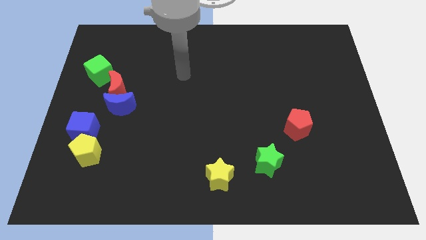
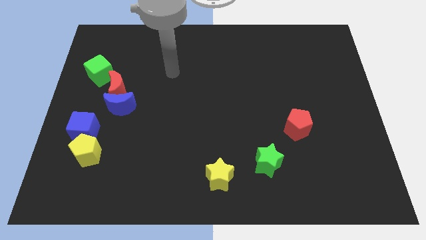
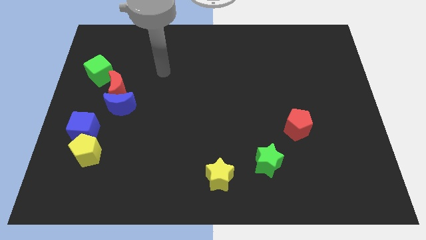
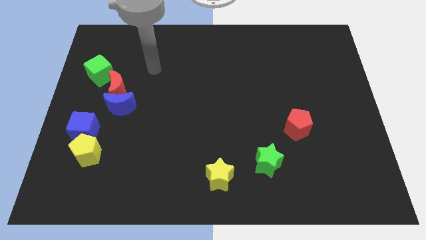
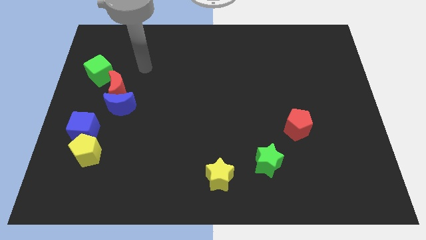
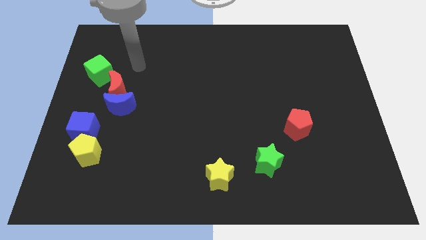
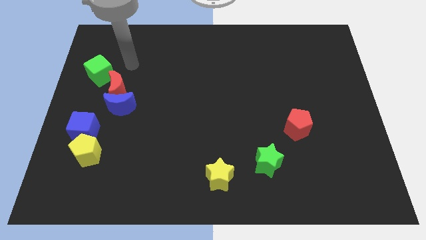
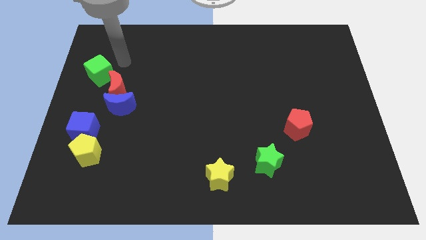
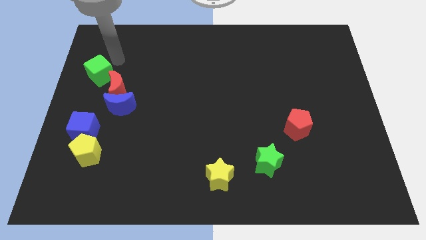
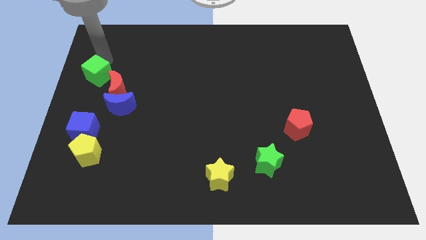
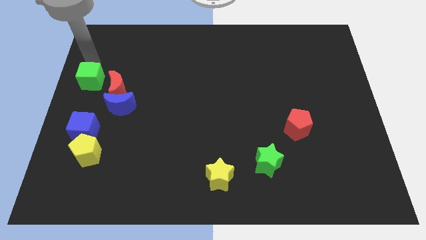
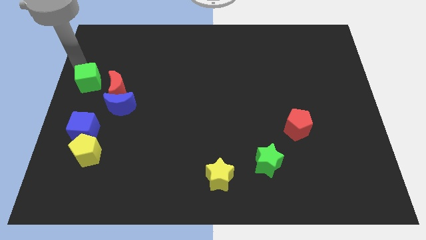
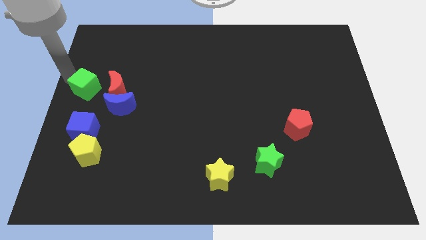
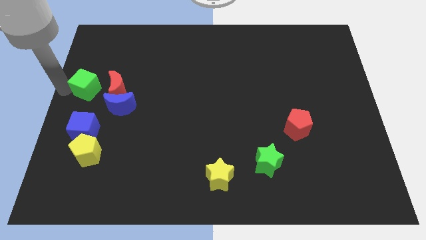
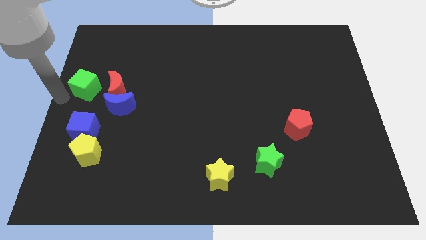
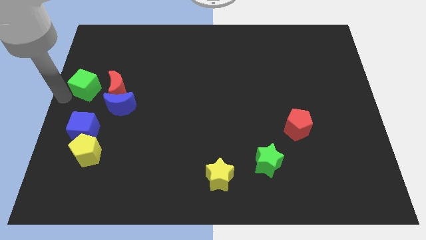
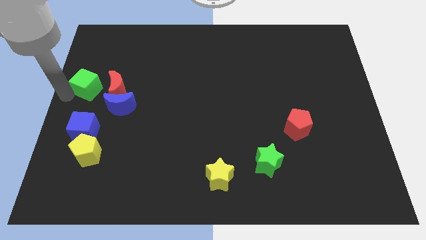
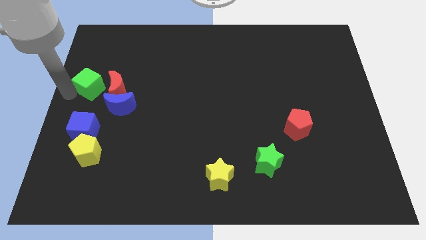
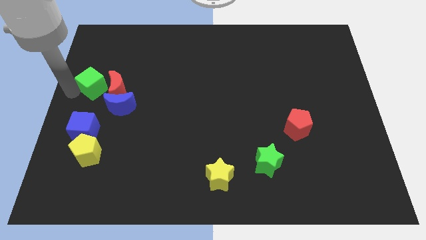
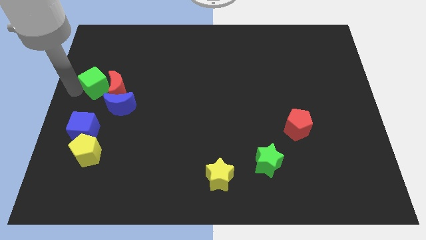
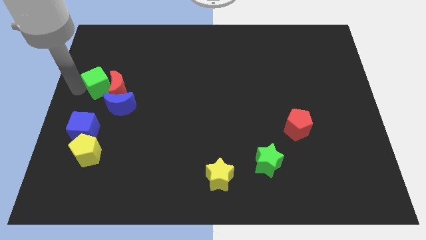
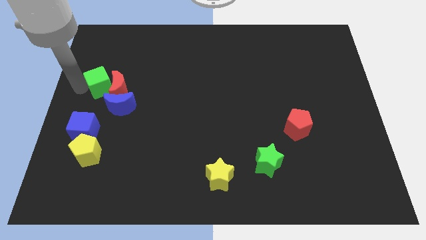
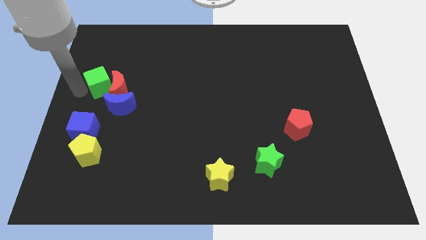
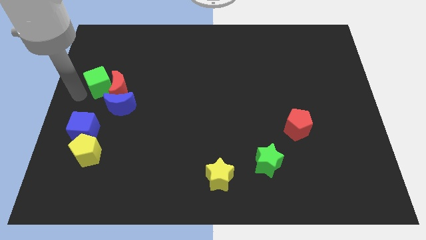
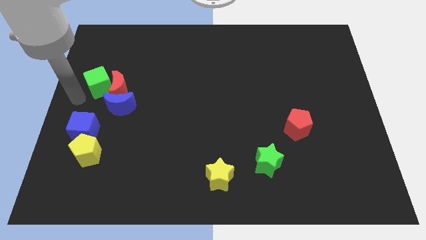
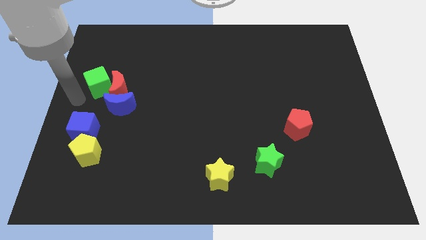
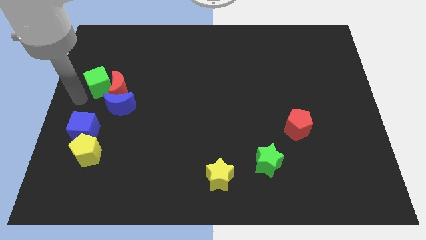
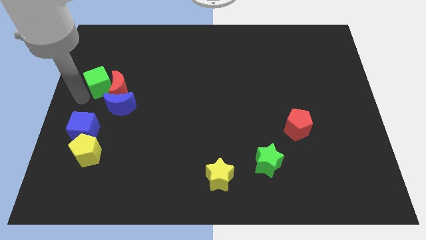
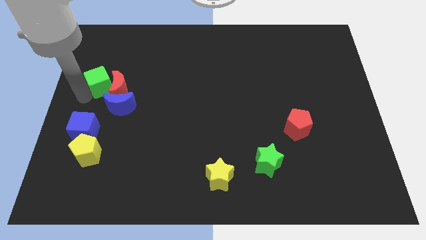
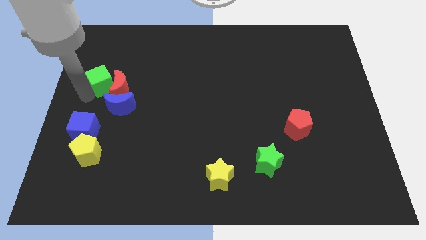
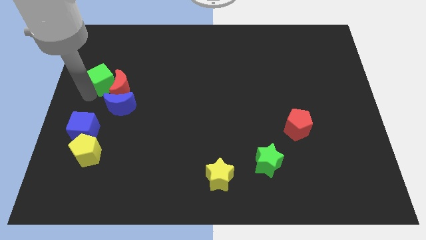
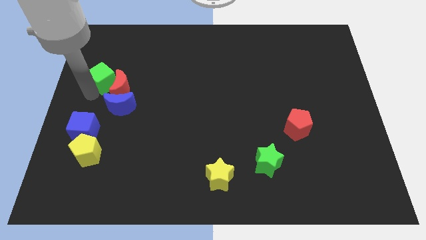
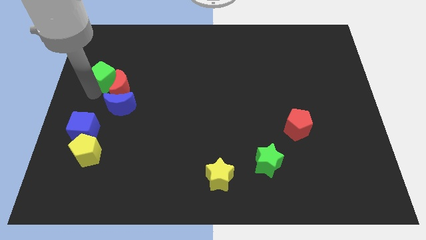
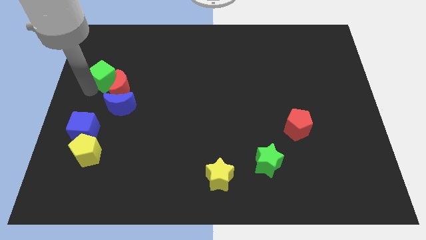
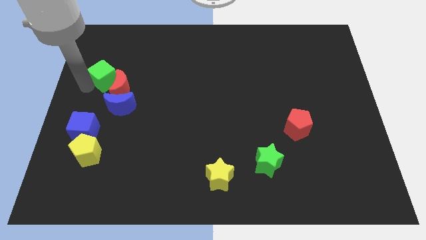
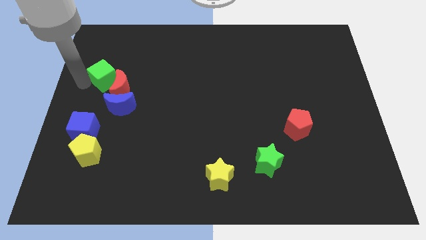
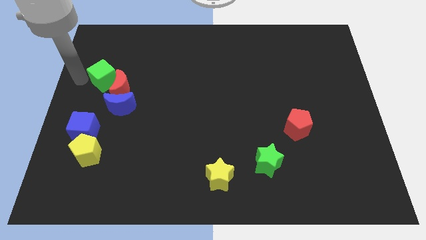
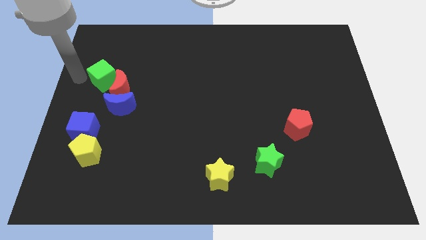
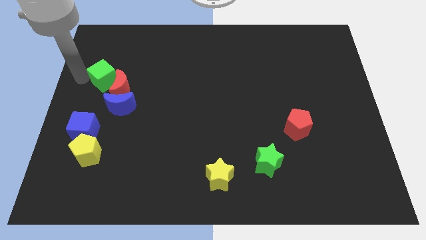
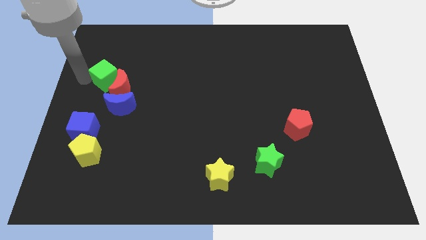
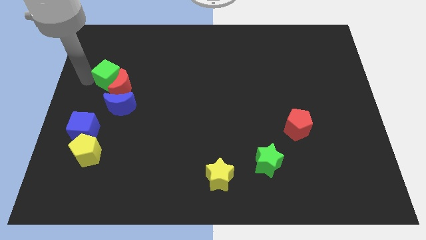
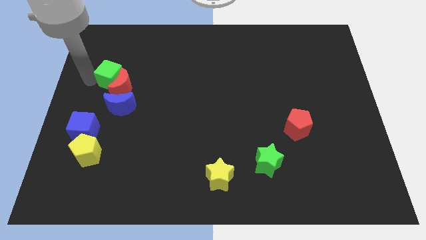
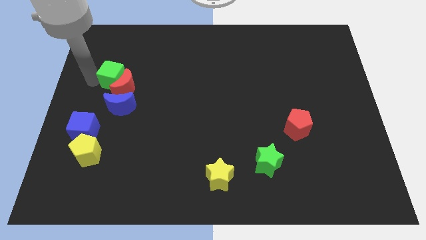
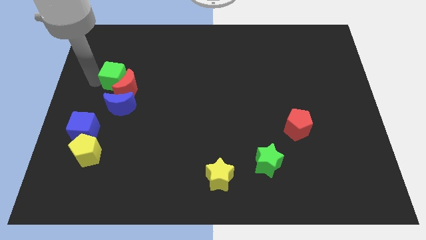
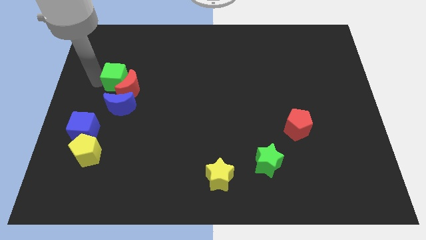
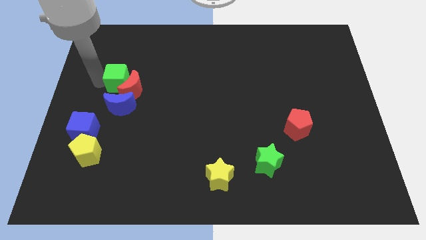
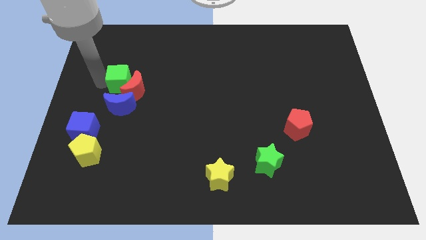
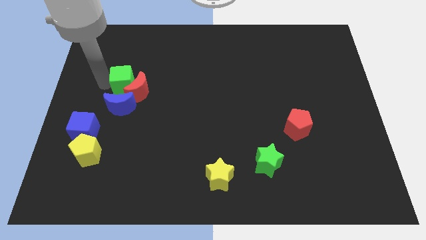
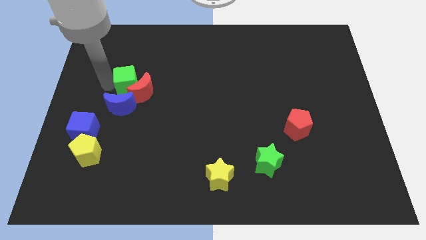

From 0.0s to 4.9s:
slide the green cube down and to the right a little

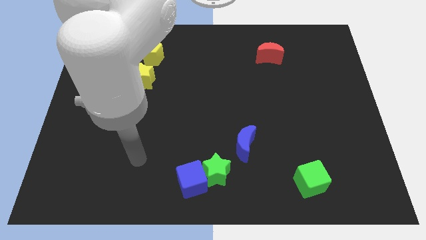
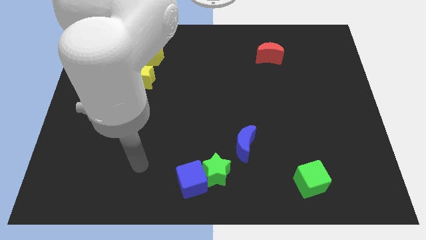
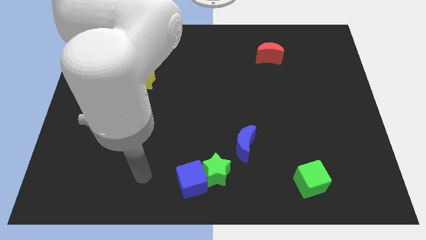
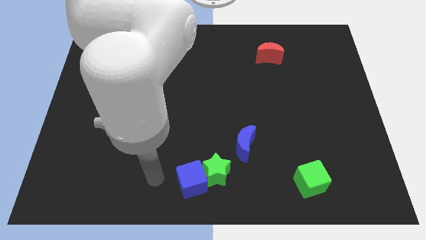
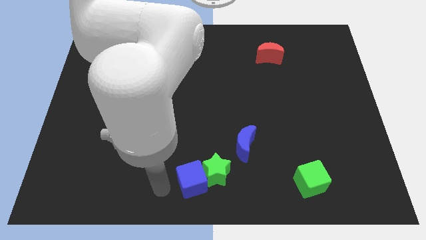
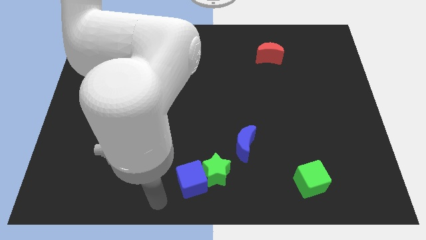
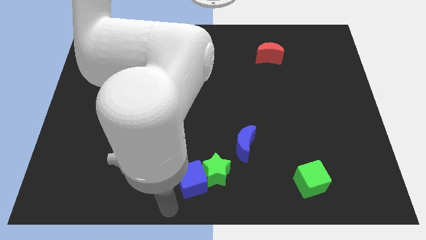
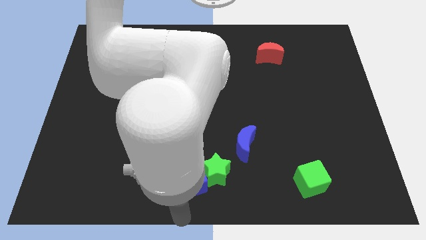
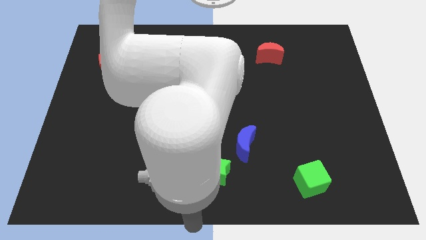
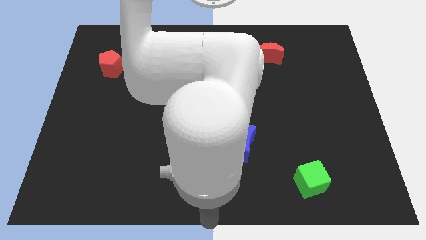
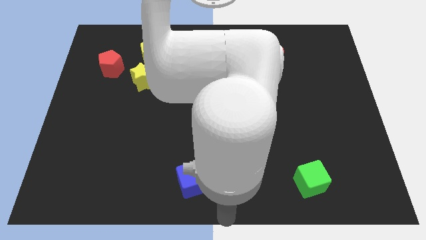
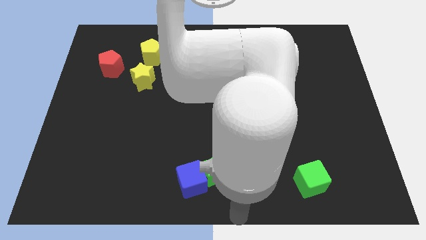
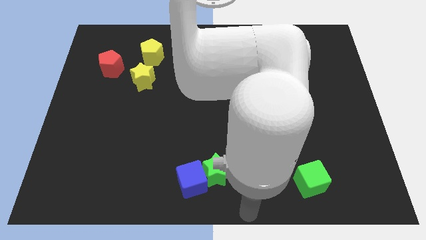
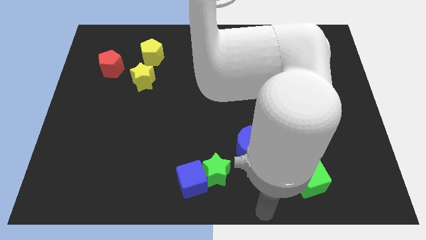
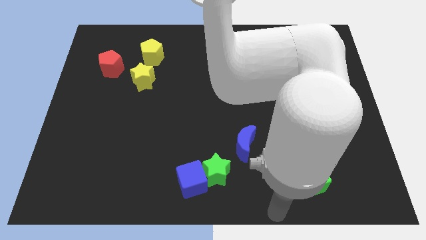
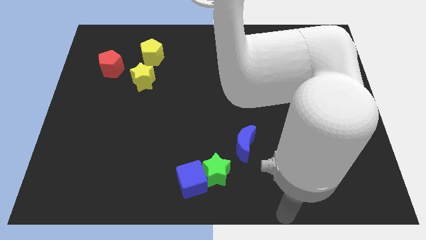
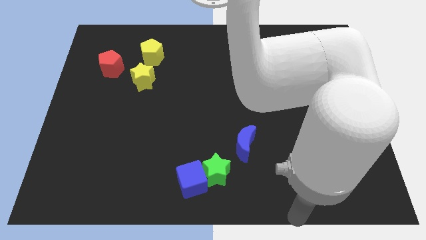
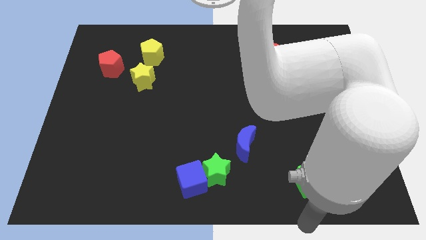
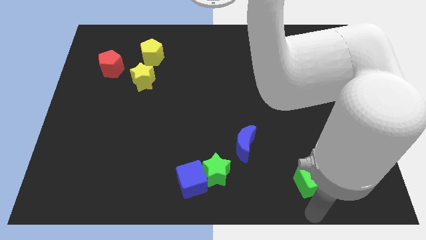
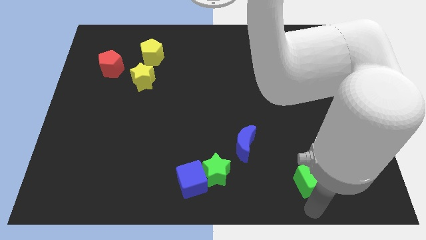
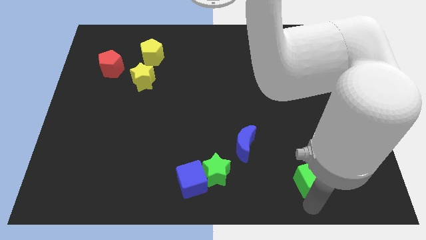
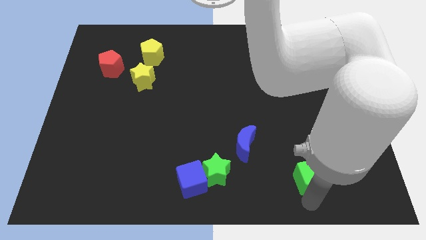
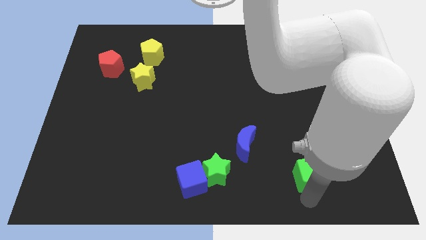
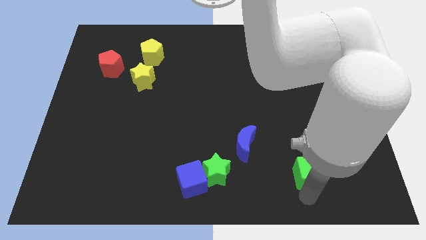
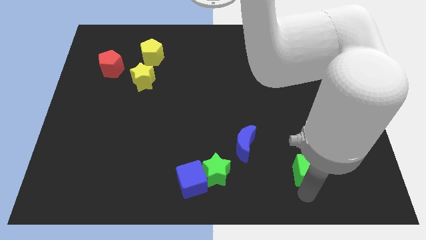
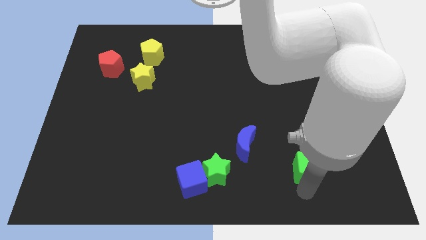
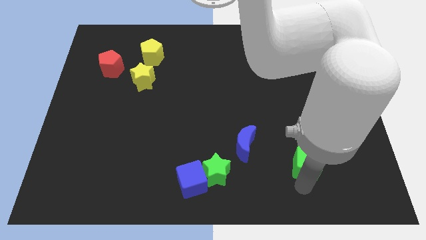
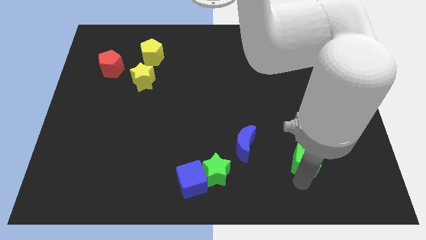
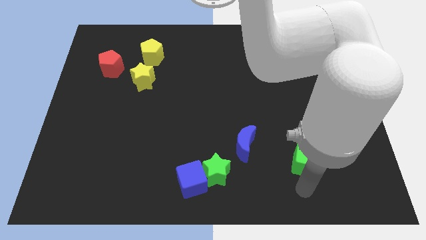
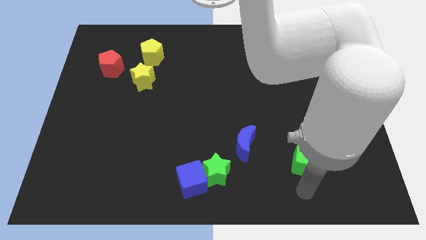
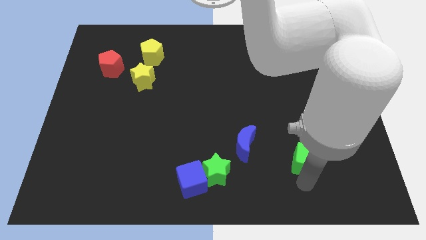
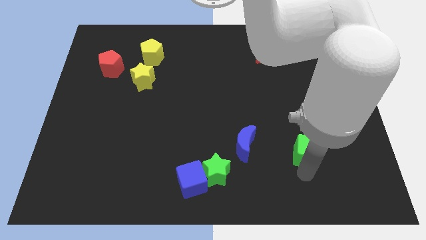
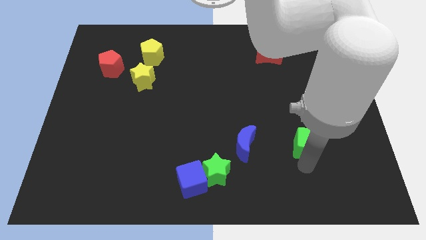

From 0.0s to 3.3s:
slide the green cube a little up

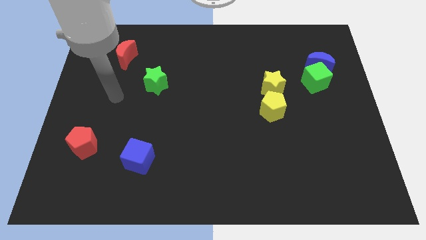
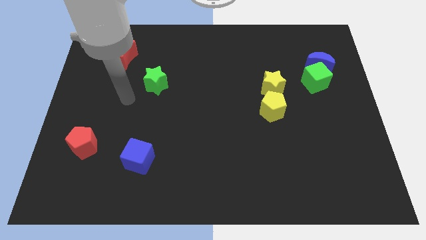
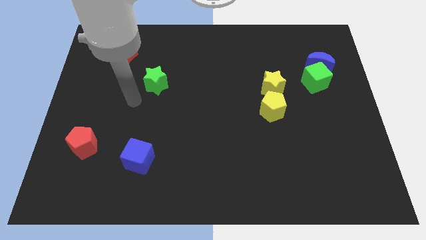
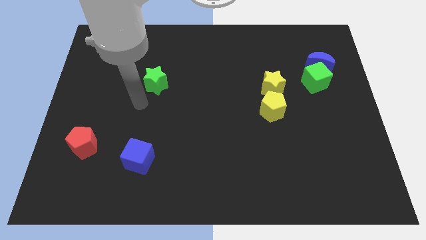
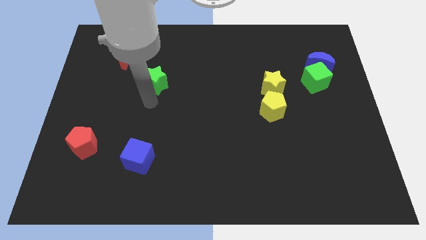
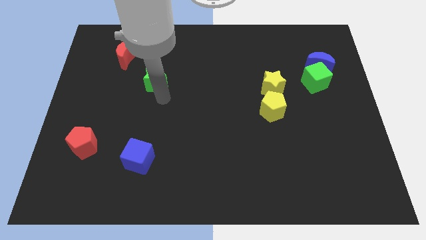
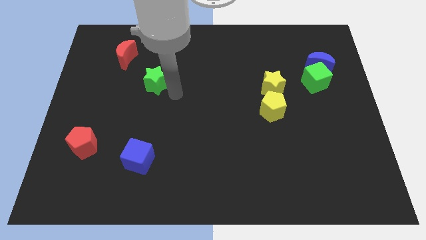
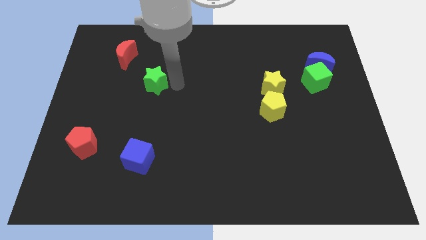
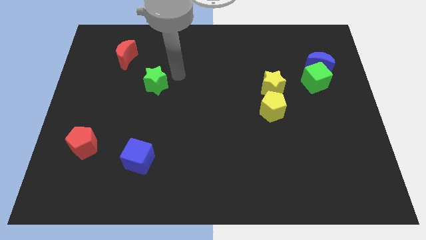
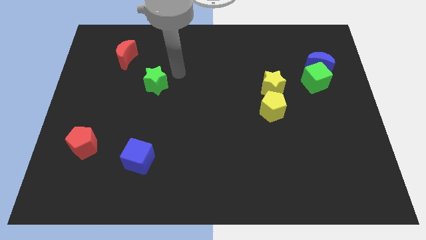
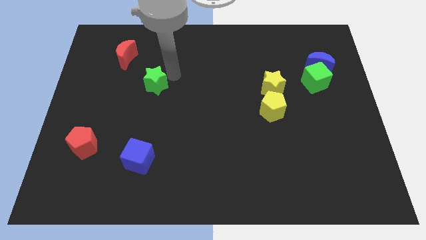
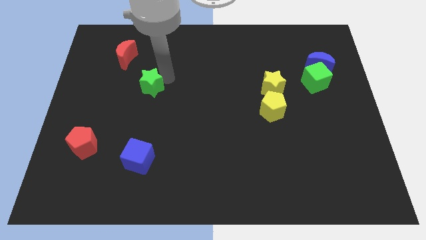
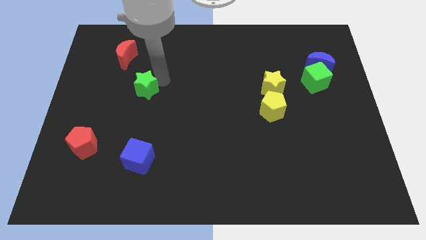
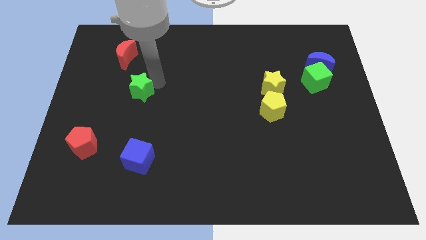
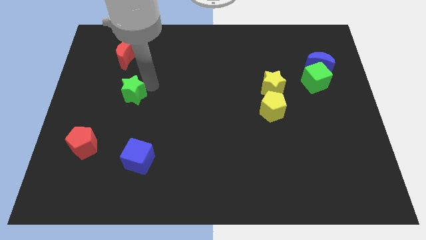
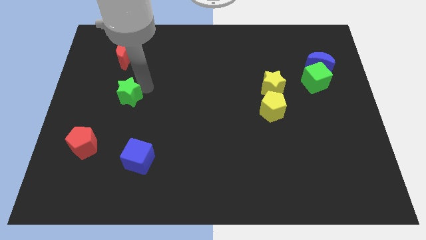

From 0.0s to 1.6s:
move the green star downwards and to the left diagonally a little
